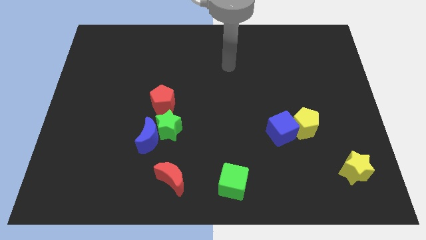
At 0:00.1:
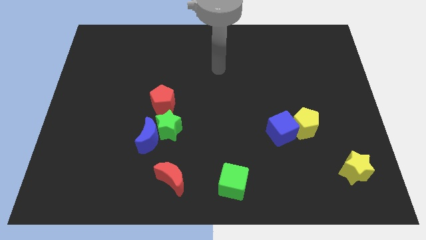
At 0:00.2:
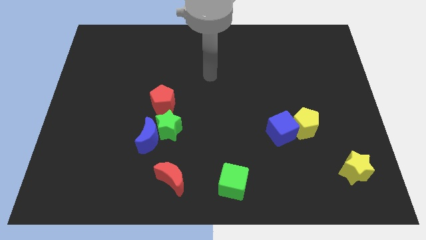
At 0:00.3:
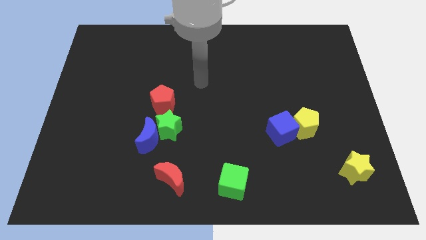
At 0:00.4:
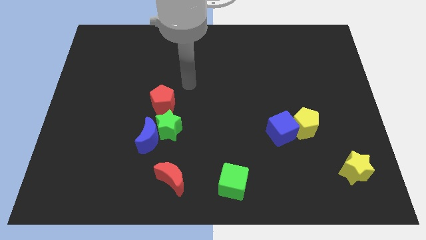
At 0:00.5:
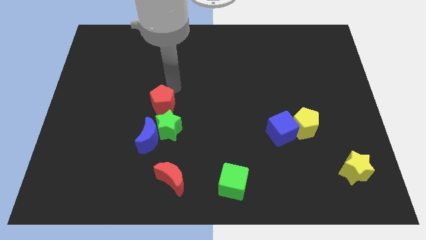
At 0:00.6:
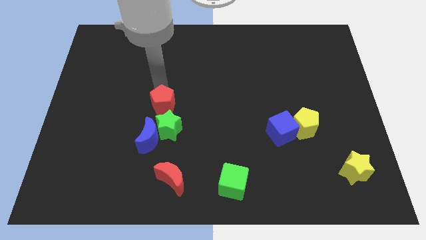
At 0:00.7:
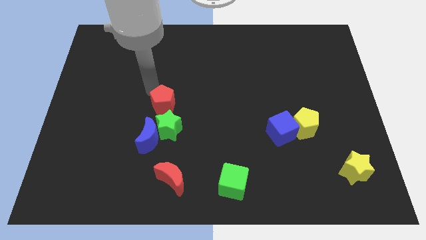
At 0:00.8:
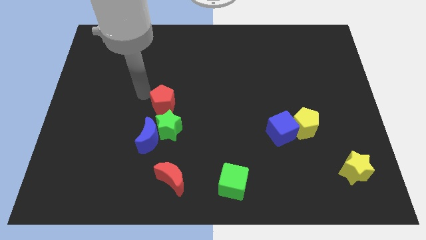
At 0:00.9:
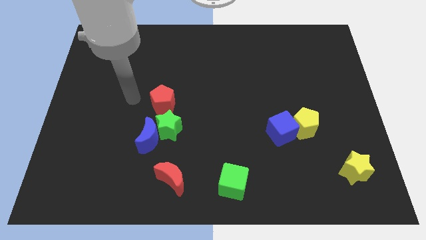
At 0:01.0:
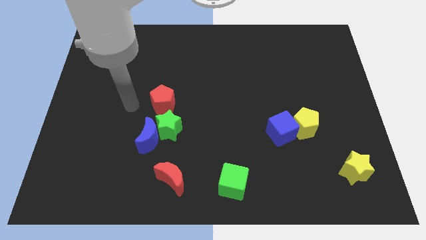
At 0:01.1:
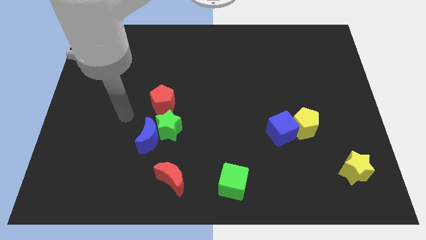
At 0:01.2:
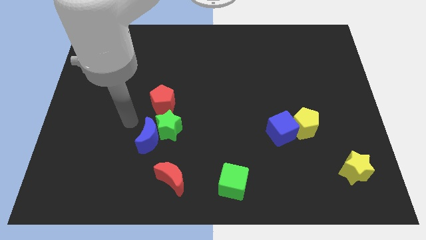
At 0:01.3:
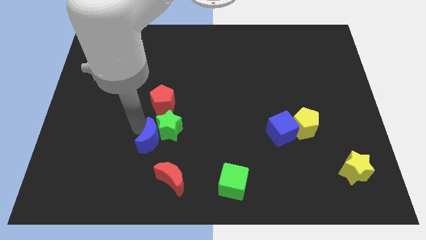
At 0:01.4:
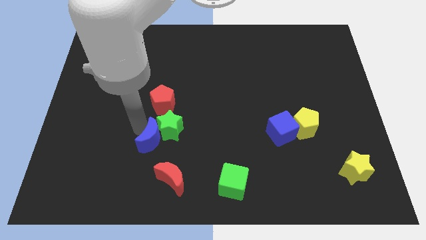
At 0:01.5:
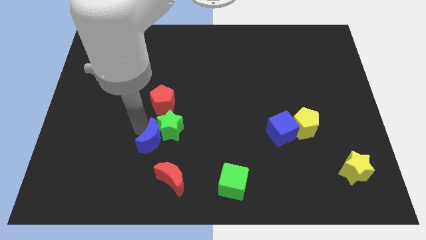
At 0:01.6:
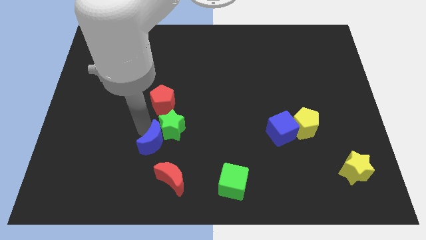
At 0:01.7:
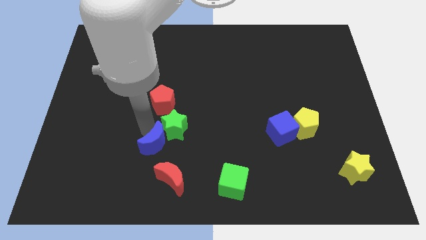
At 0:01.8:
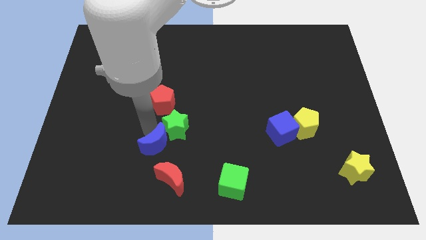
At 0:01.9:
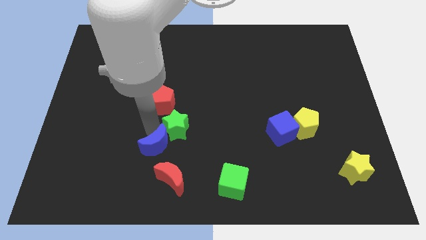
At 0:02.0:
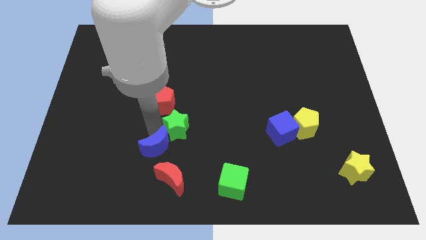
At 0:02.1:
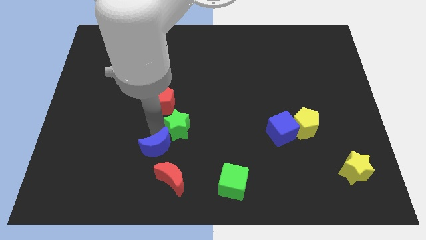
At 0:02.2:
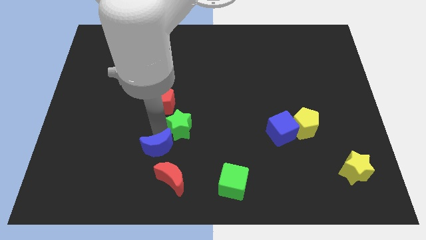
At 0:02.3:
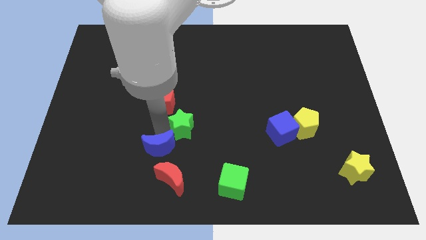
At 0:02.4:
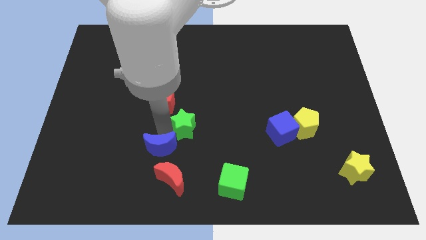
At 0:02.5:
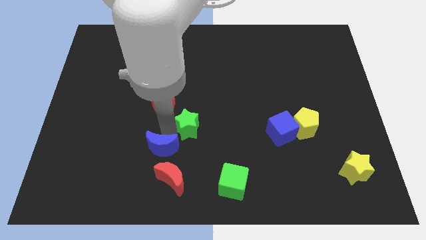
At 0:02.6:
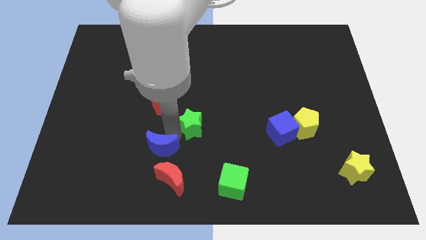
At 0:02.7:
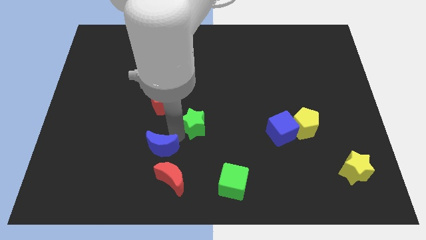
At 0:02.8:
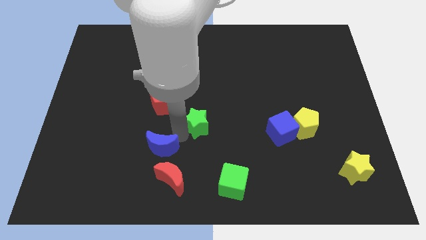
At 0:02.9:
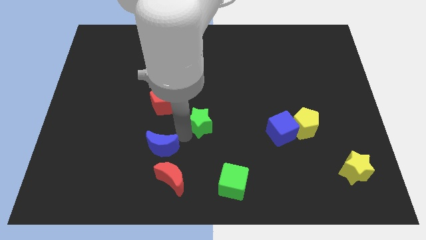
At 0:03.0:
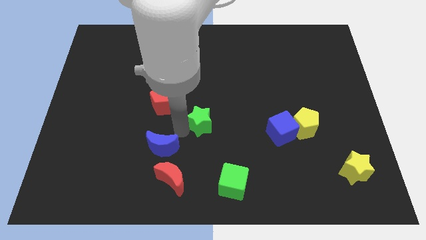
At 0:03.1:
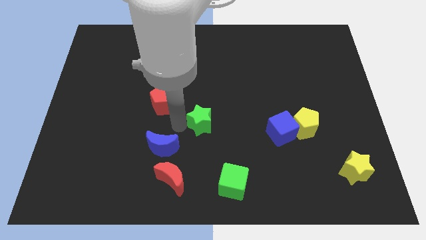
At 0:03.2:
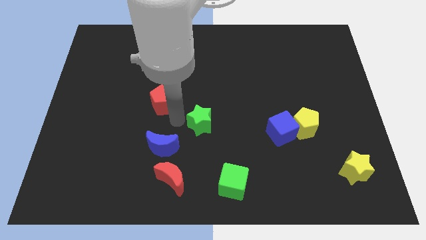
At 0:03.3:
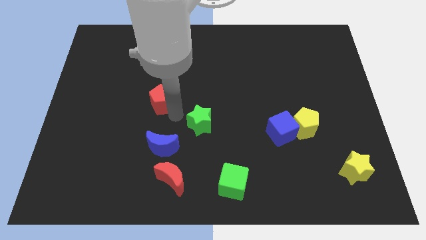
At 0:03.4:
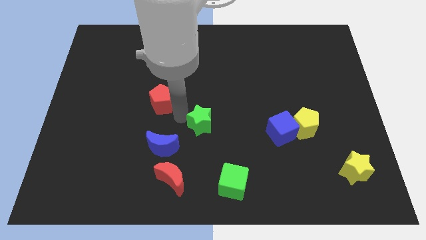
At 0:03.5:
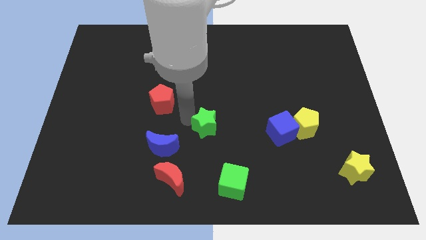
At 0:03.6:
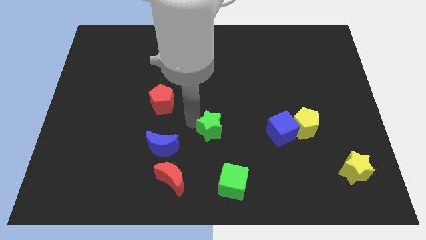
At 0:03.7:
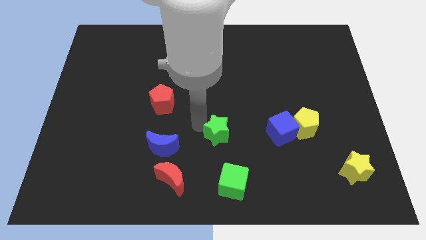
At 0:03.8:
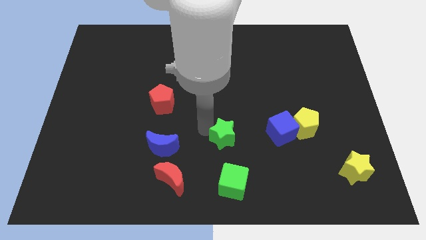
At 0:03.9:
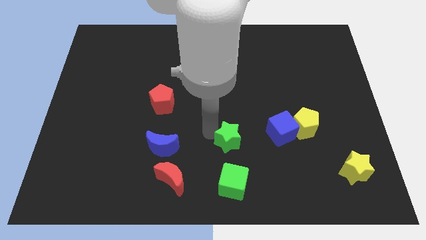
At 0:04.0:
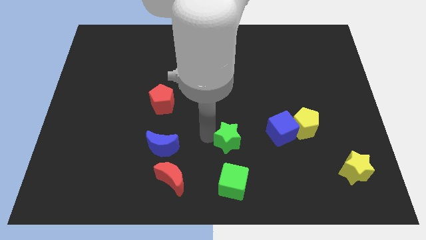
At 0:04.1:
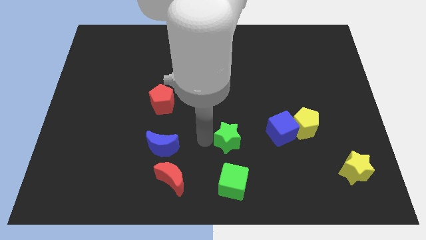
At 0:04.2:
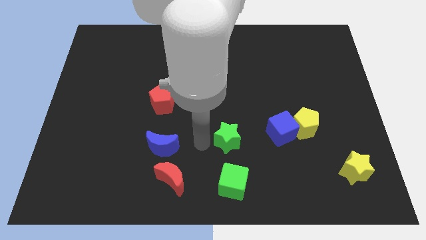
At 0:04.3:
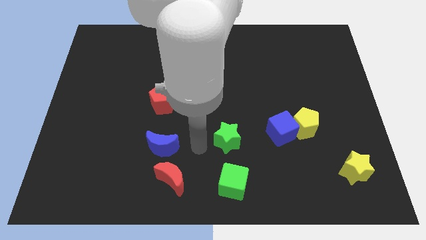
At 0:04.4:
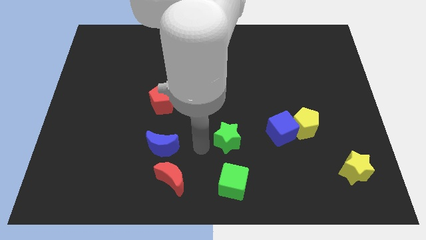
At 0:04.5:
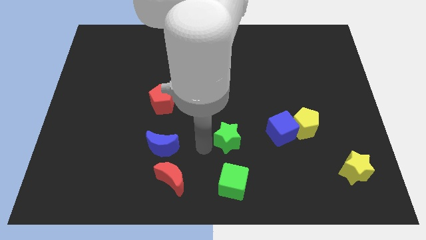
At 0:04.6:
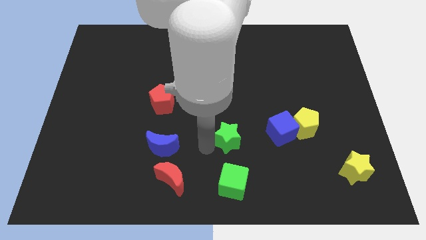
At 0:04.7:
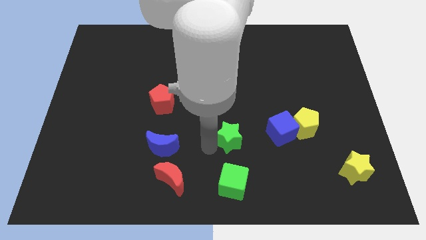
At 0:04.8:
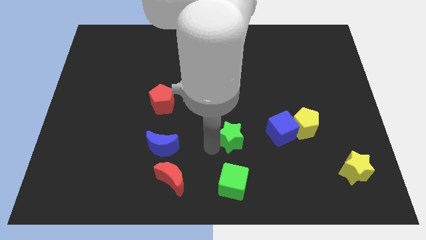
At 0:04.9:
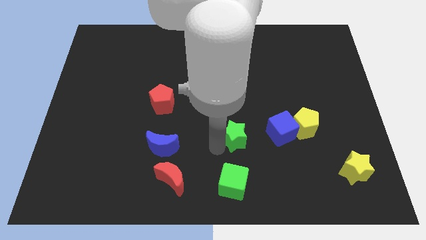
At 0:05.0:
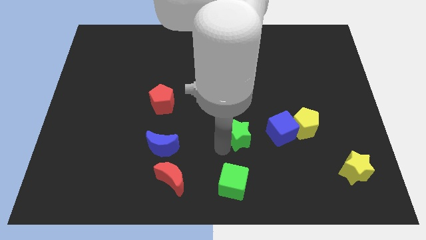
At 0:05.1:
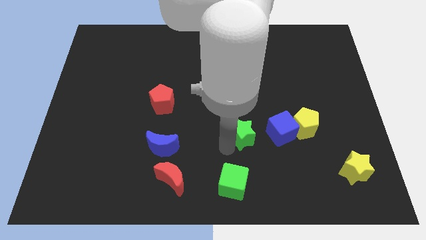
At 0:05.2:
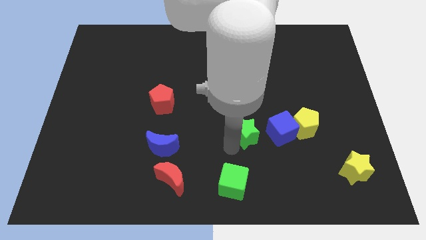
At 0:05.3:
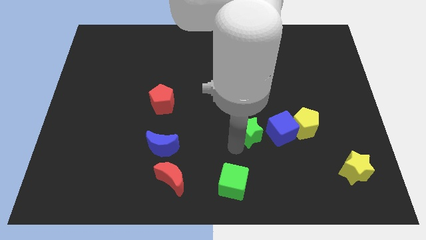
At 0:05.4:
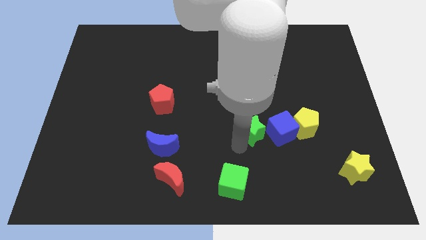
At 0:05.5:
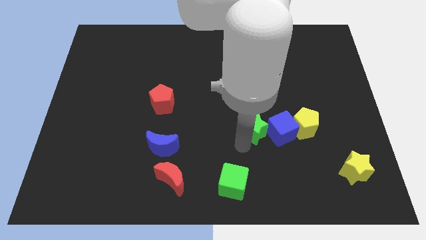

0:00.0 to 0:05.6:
move the green star next to the blue cube

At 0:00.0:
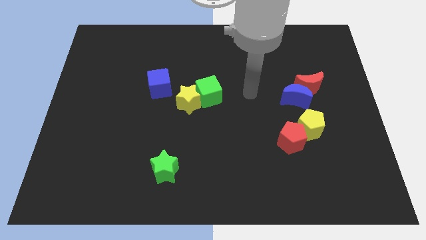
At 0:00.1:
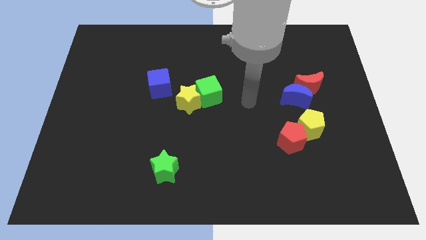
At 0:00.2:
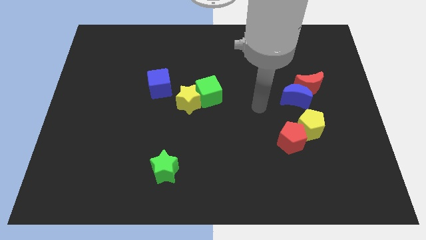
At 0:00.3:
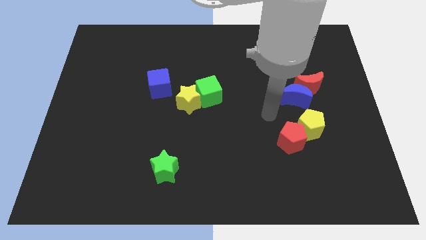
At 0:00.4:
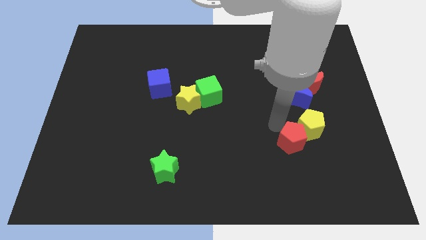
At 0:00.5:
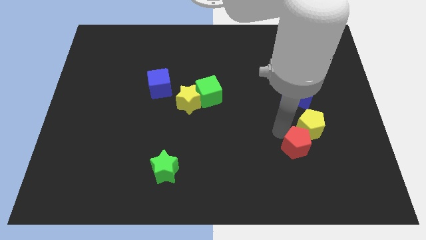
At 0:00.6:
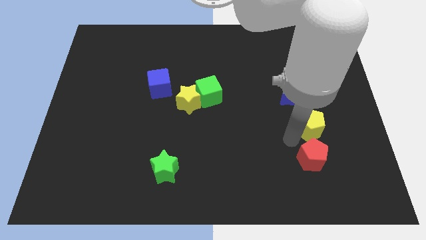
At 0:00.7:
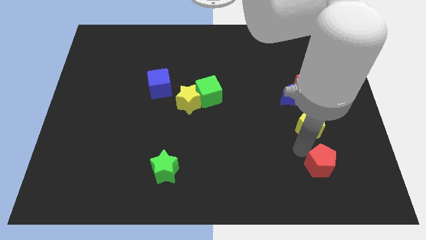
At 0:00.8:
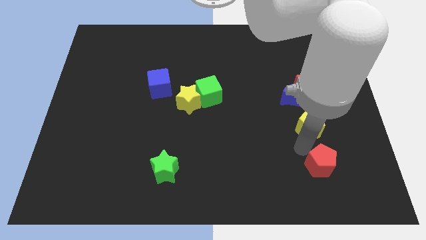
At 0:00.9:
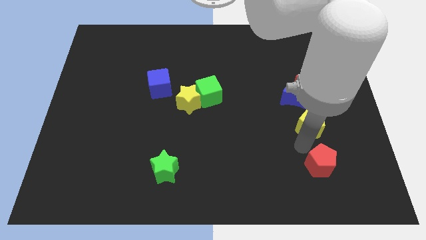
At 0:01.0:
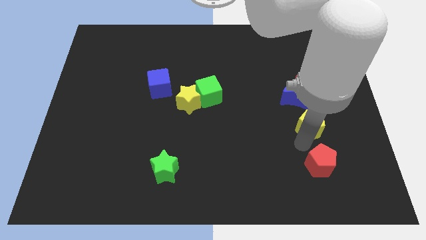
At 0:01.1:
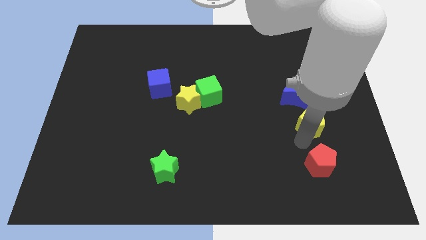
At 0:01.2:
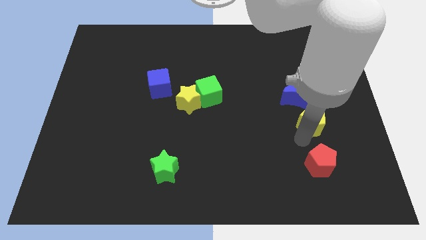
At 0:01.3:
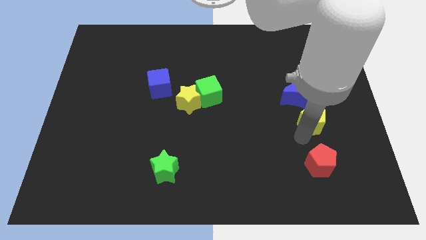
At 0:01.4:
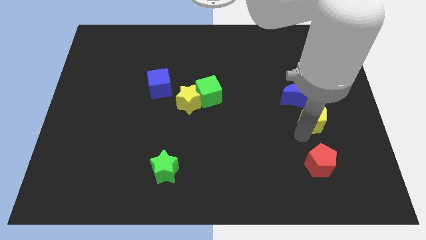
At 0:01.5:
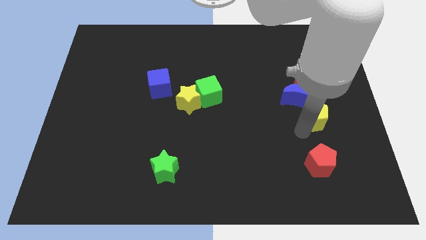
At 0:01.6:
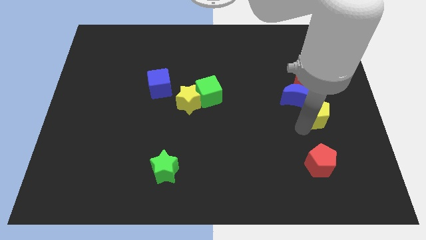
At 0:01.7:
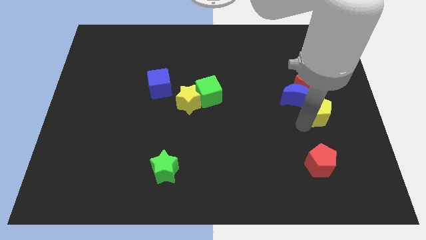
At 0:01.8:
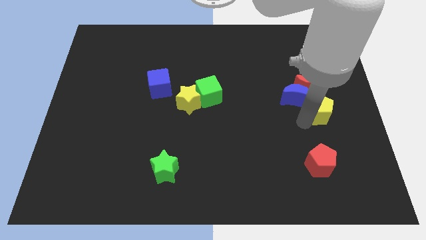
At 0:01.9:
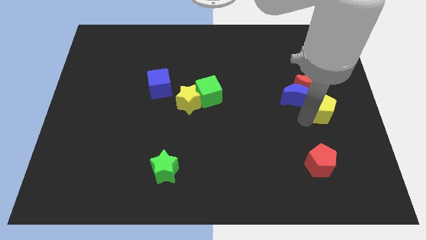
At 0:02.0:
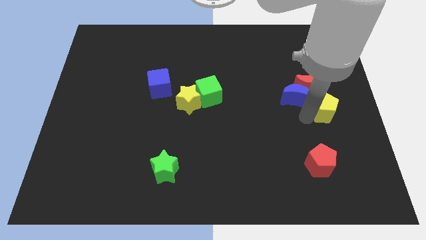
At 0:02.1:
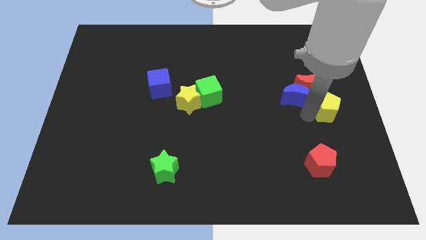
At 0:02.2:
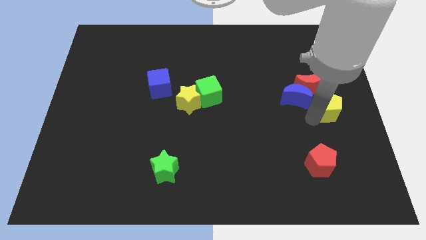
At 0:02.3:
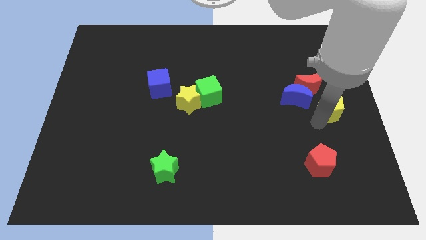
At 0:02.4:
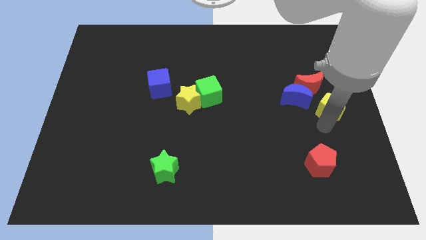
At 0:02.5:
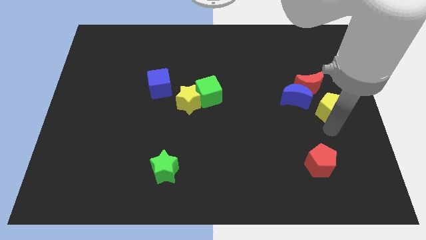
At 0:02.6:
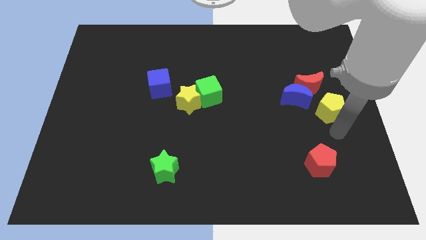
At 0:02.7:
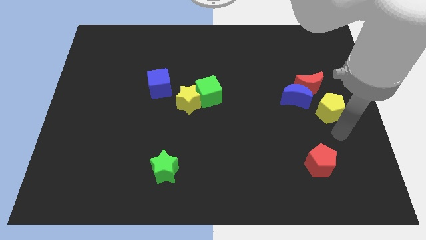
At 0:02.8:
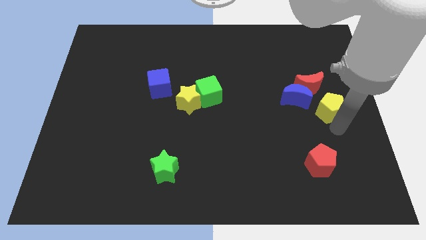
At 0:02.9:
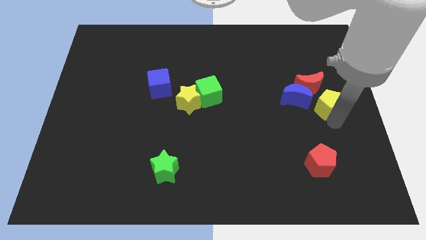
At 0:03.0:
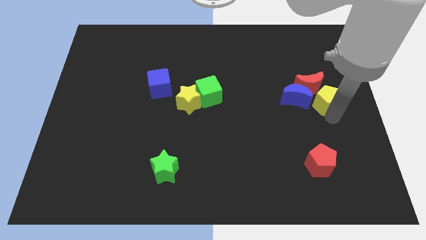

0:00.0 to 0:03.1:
move the yellow pentagon to the red moon
